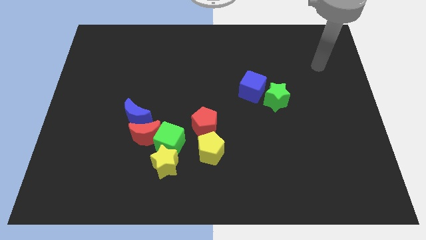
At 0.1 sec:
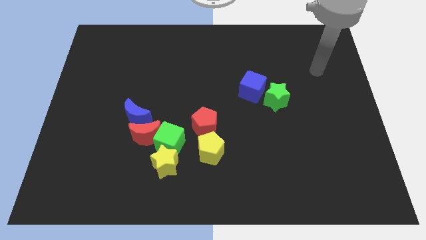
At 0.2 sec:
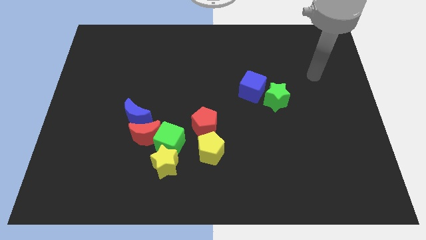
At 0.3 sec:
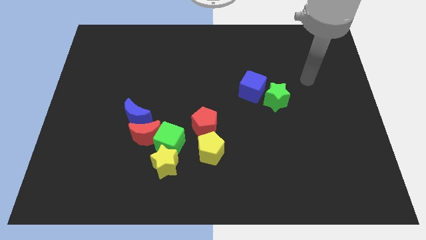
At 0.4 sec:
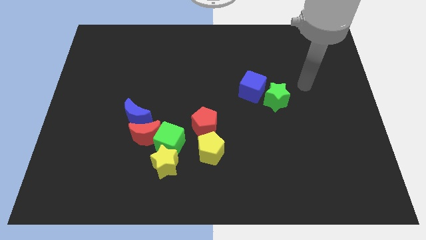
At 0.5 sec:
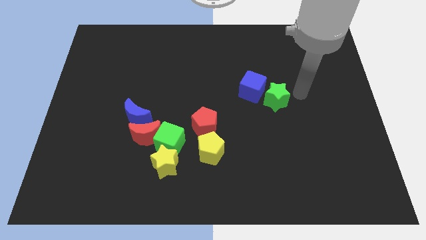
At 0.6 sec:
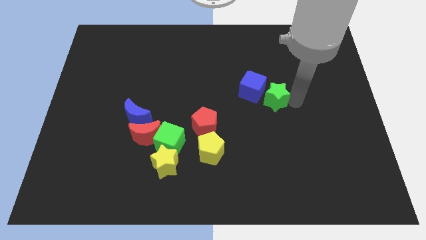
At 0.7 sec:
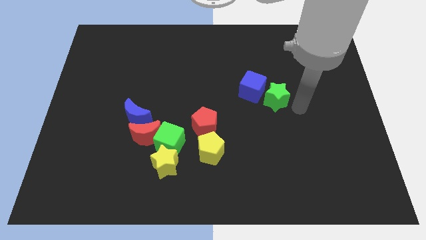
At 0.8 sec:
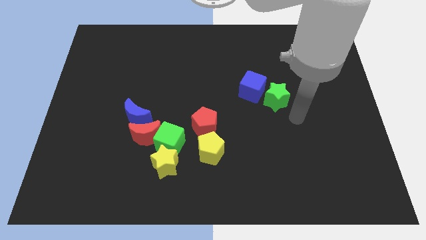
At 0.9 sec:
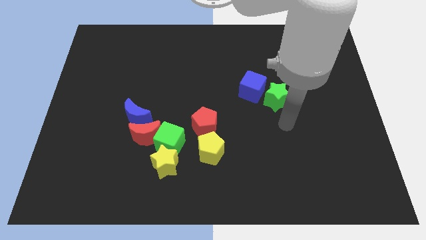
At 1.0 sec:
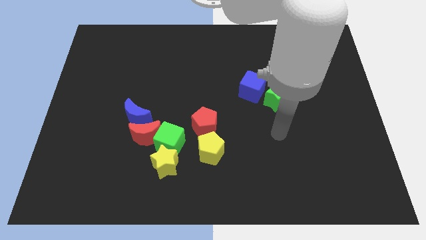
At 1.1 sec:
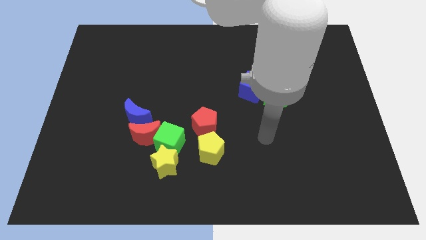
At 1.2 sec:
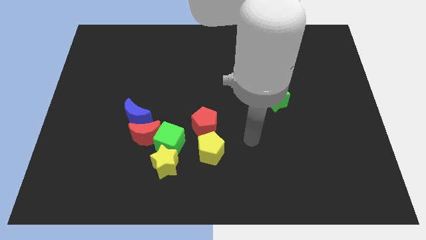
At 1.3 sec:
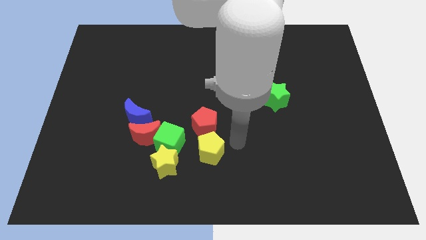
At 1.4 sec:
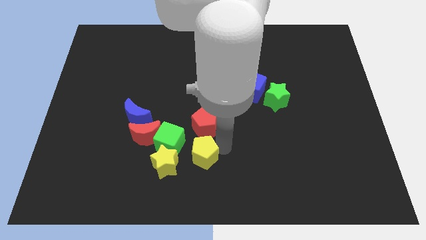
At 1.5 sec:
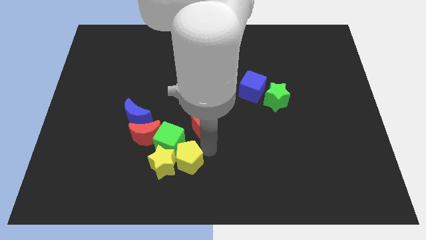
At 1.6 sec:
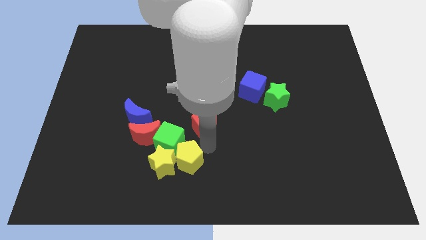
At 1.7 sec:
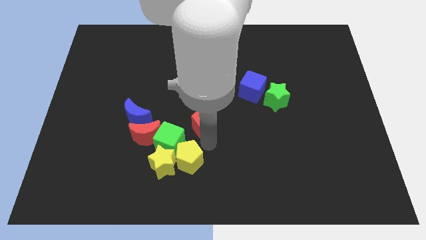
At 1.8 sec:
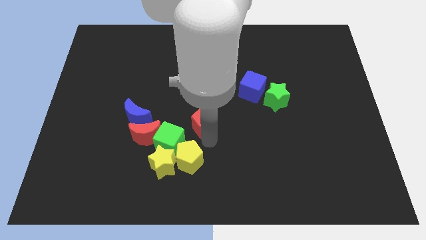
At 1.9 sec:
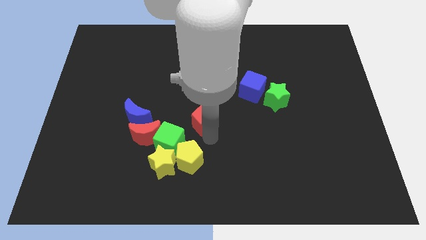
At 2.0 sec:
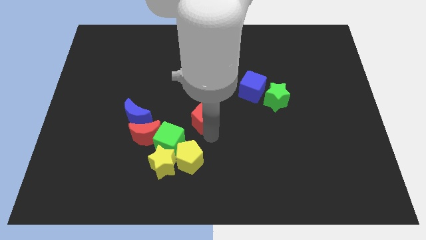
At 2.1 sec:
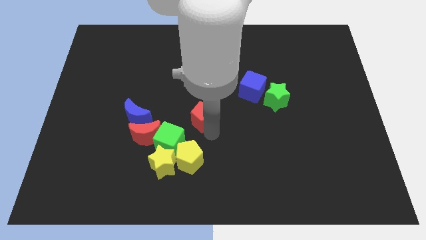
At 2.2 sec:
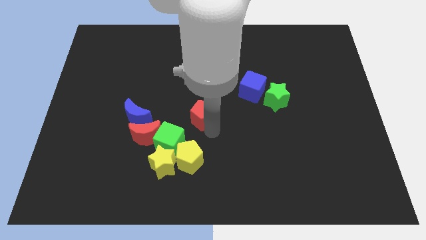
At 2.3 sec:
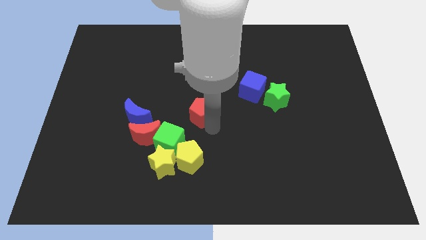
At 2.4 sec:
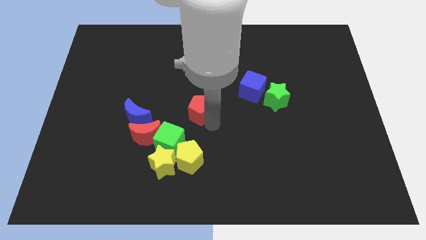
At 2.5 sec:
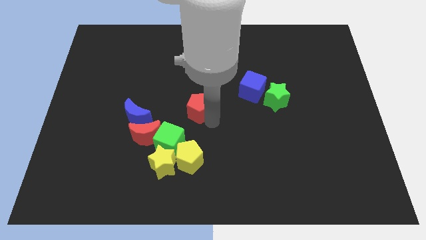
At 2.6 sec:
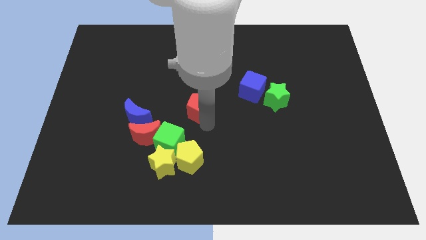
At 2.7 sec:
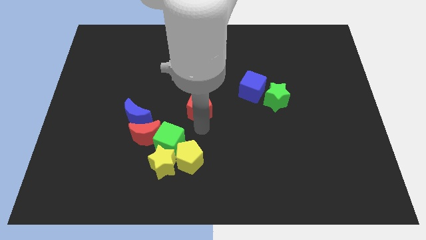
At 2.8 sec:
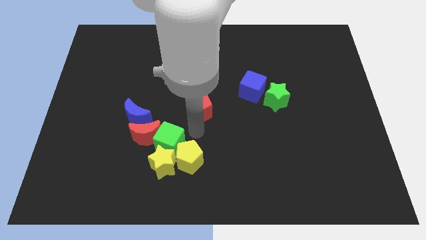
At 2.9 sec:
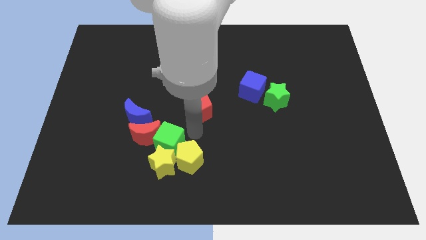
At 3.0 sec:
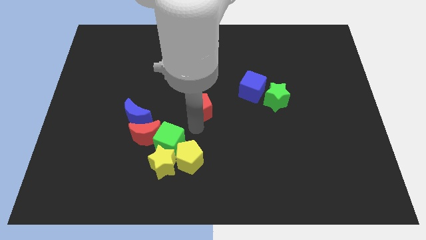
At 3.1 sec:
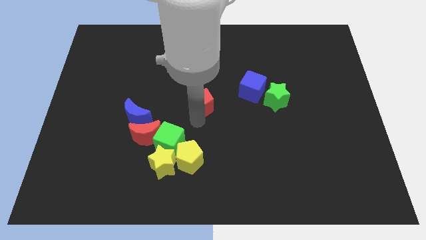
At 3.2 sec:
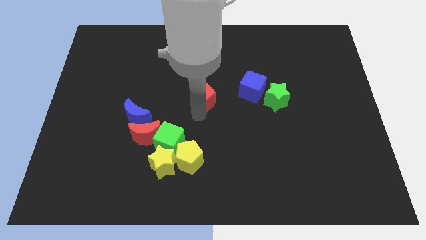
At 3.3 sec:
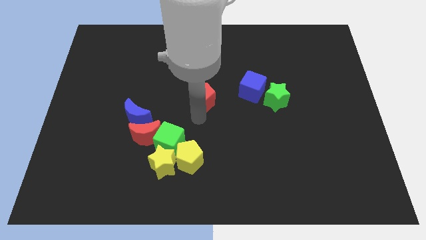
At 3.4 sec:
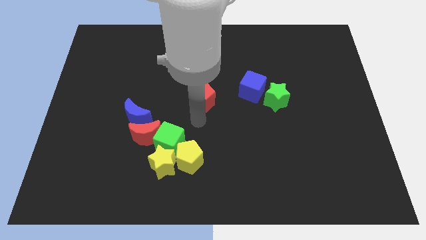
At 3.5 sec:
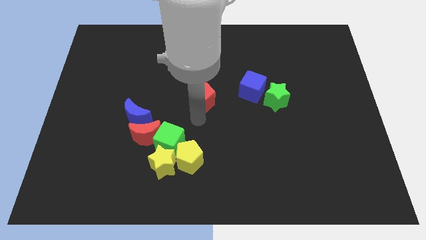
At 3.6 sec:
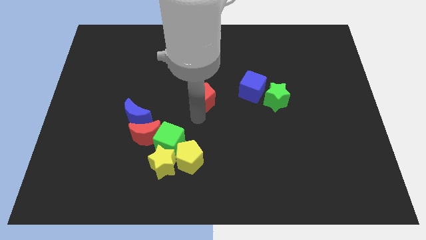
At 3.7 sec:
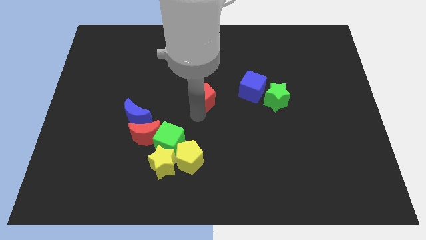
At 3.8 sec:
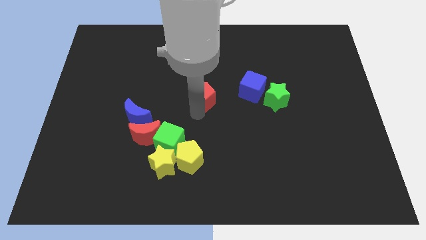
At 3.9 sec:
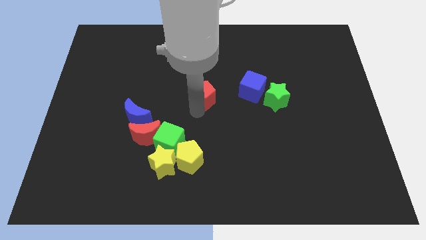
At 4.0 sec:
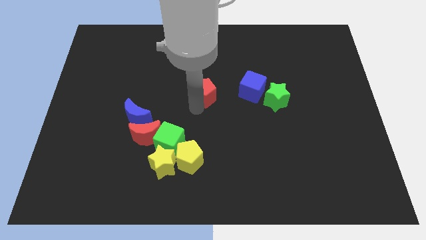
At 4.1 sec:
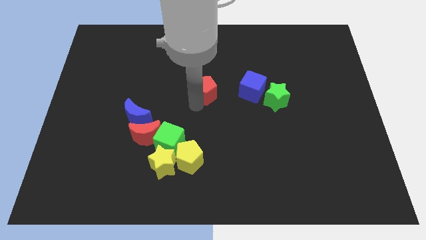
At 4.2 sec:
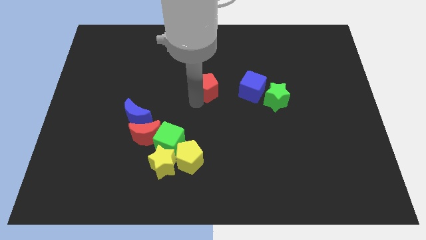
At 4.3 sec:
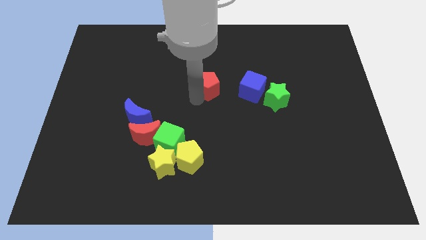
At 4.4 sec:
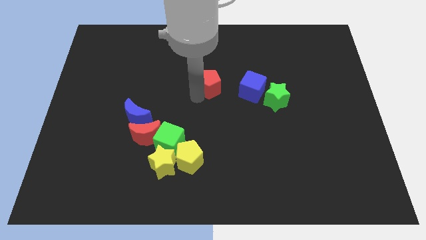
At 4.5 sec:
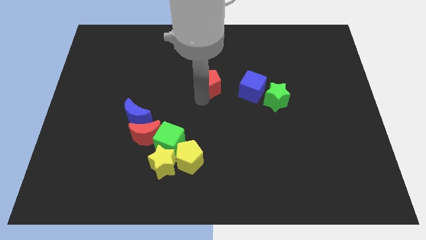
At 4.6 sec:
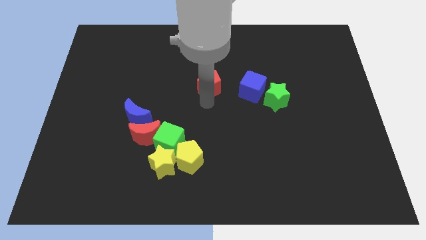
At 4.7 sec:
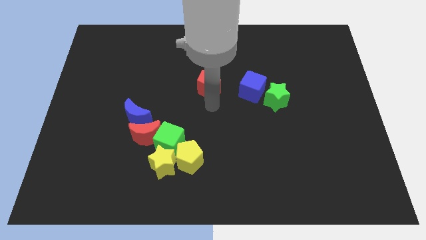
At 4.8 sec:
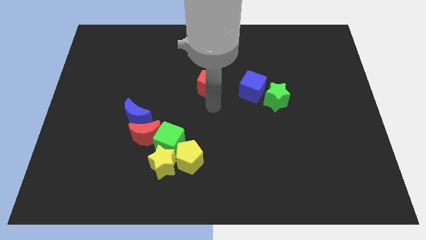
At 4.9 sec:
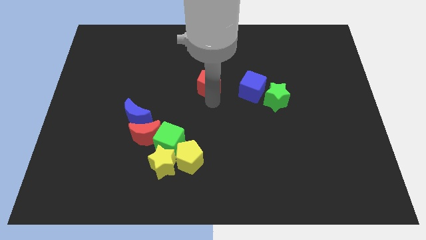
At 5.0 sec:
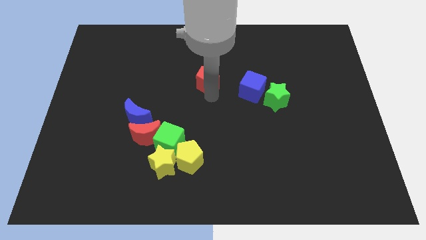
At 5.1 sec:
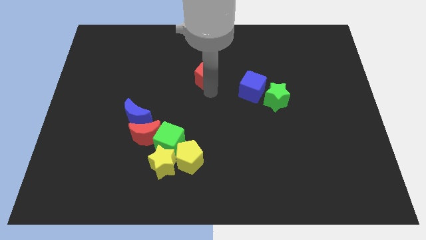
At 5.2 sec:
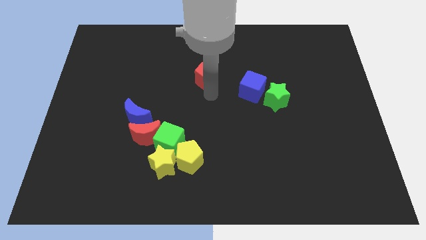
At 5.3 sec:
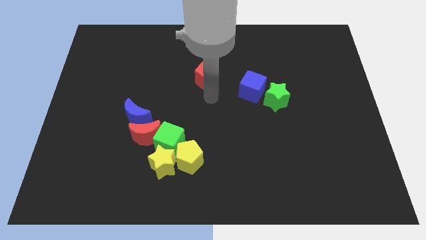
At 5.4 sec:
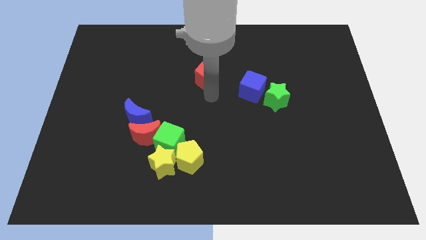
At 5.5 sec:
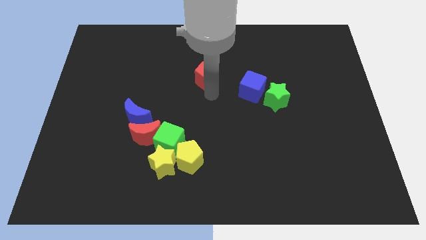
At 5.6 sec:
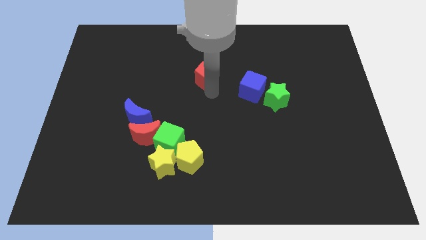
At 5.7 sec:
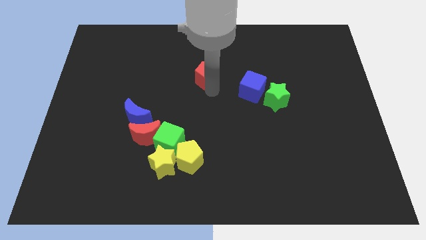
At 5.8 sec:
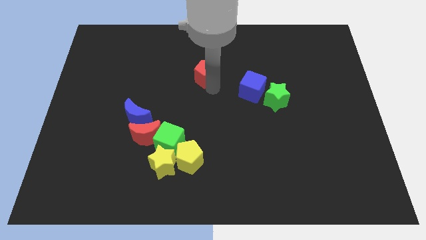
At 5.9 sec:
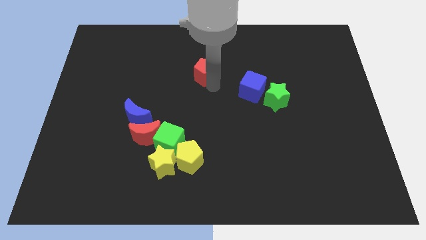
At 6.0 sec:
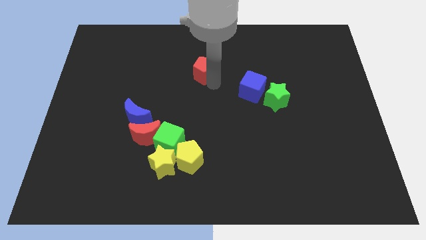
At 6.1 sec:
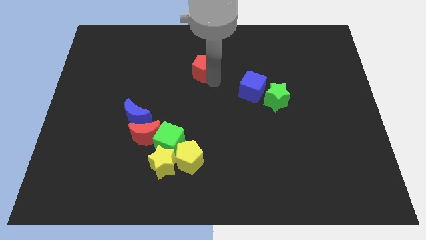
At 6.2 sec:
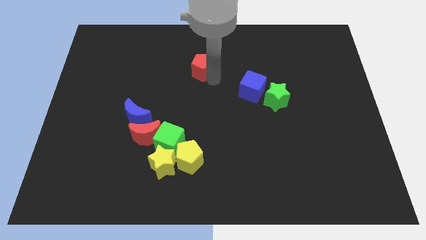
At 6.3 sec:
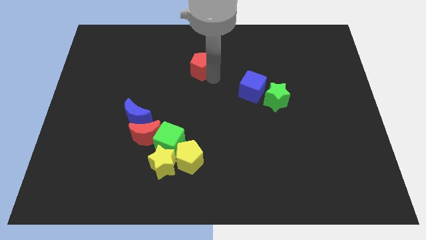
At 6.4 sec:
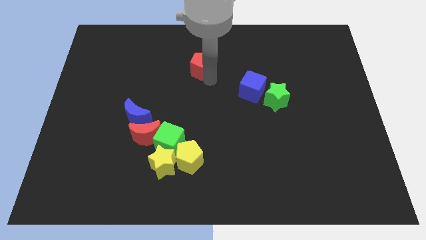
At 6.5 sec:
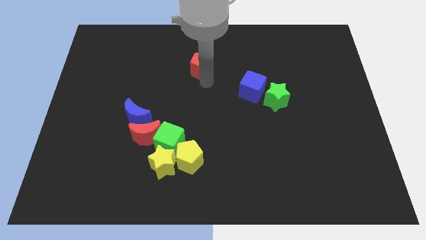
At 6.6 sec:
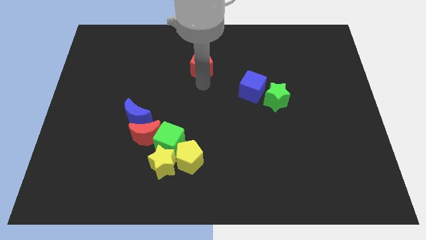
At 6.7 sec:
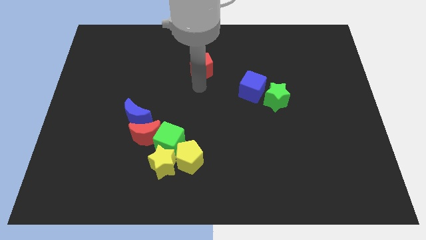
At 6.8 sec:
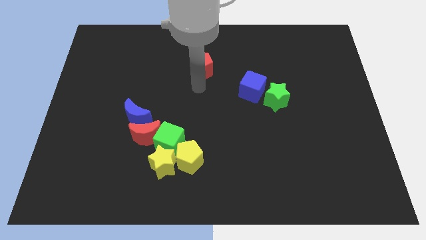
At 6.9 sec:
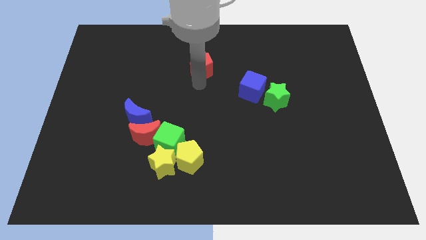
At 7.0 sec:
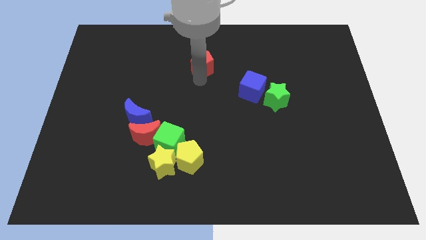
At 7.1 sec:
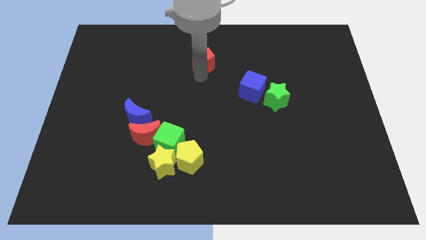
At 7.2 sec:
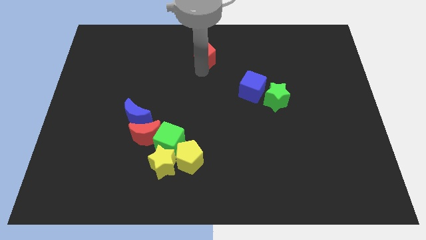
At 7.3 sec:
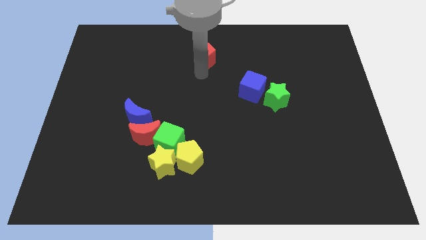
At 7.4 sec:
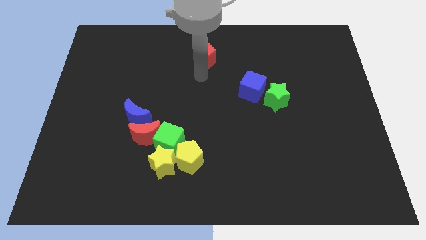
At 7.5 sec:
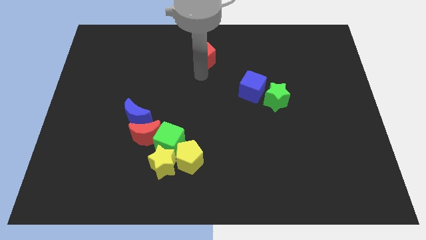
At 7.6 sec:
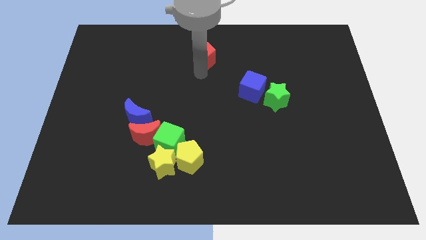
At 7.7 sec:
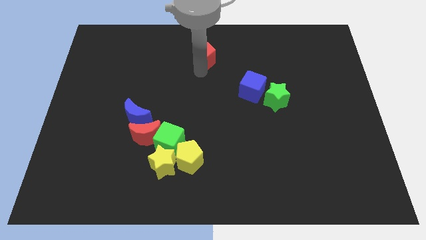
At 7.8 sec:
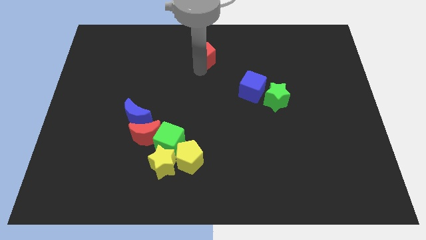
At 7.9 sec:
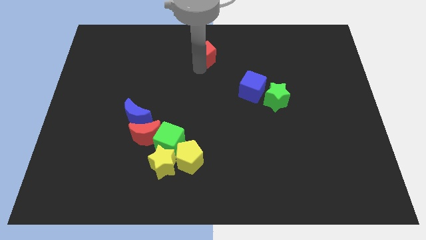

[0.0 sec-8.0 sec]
slide the red pentagon to the top side
